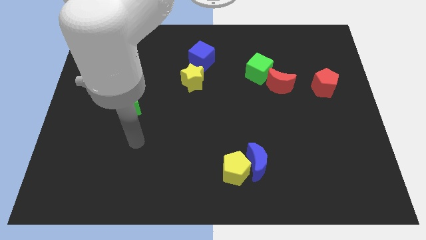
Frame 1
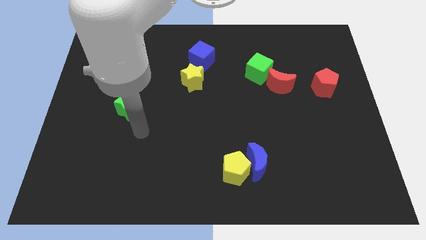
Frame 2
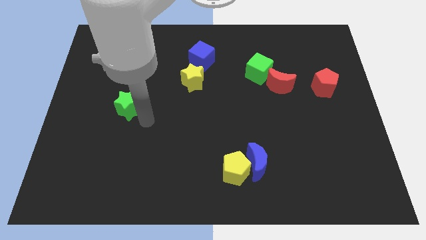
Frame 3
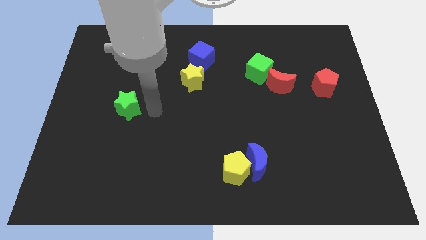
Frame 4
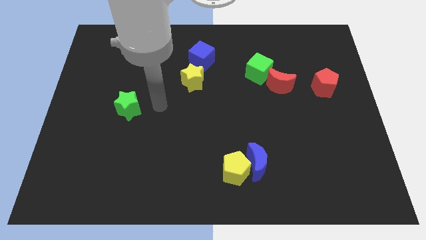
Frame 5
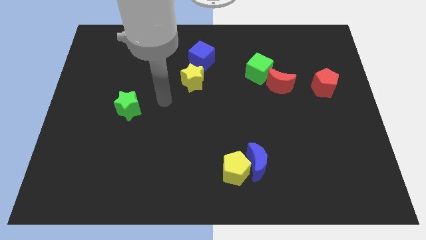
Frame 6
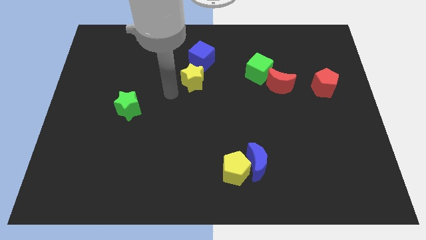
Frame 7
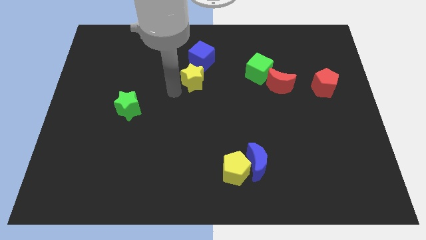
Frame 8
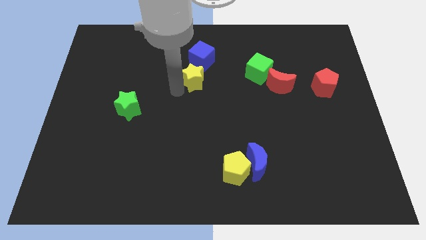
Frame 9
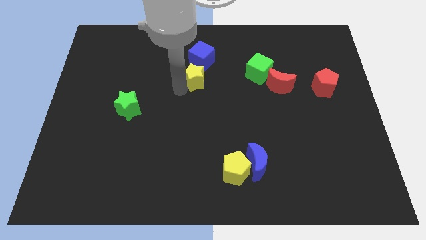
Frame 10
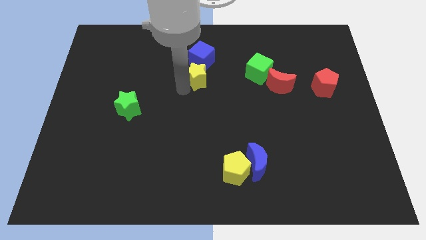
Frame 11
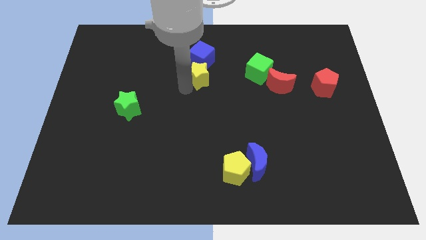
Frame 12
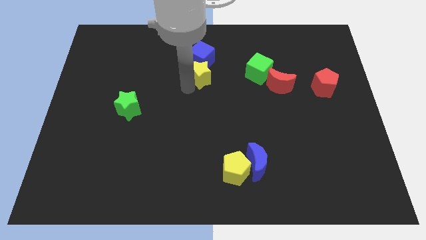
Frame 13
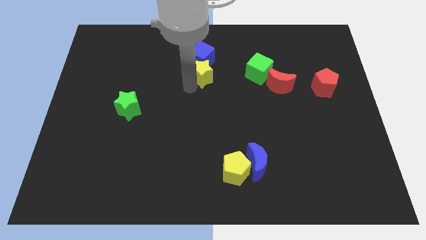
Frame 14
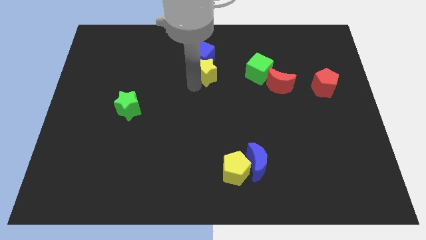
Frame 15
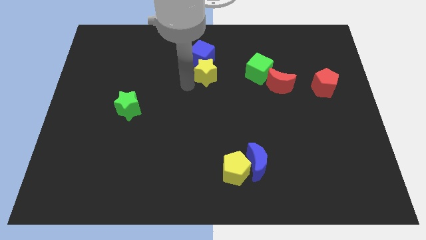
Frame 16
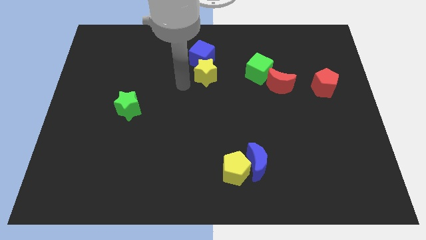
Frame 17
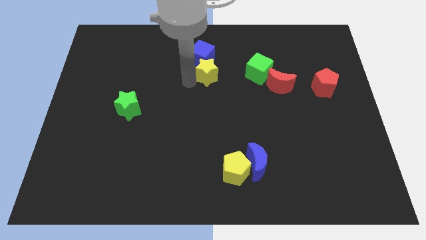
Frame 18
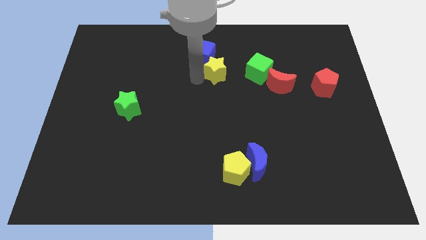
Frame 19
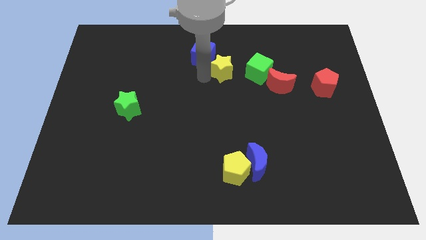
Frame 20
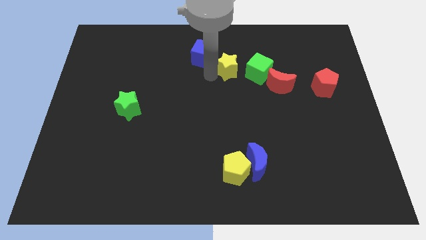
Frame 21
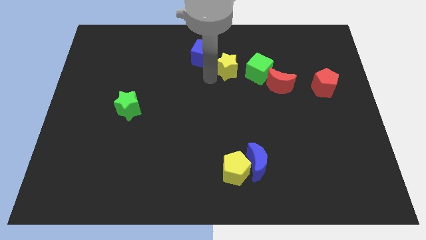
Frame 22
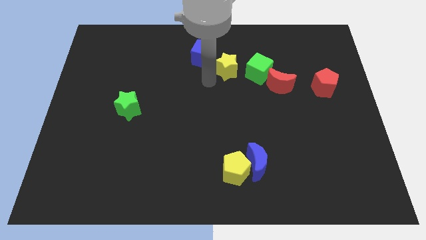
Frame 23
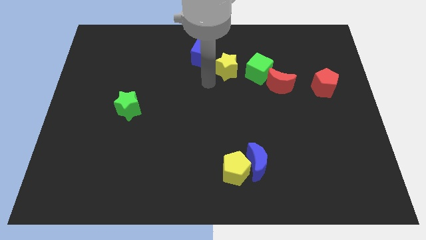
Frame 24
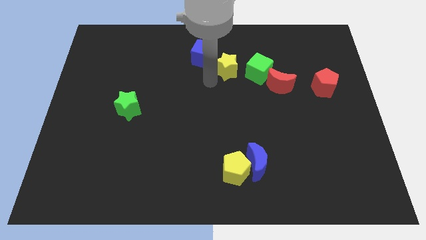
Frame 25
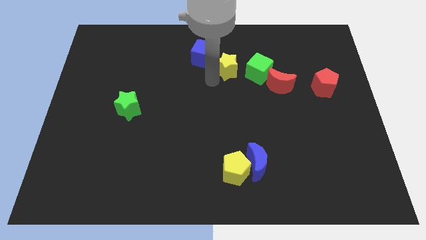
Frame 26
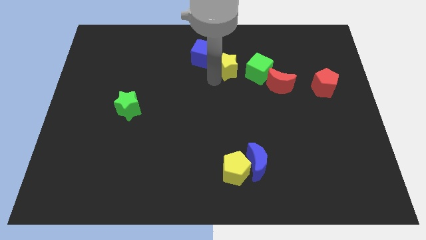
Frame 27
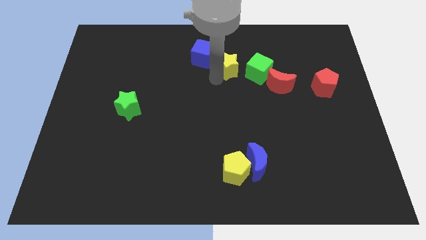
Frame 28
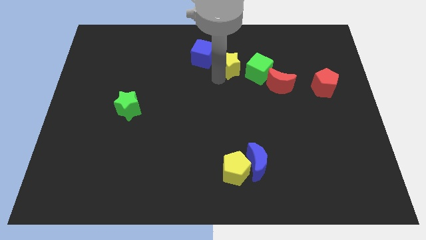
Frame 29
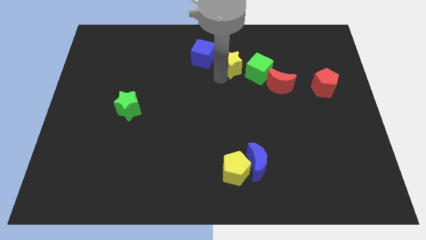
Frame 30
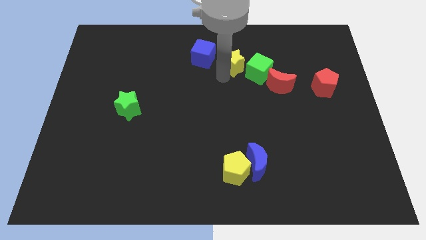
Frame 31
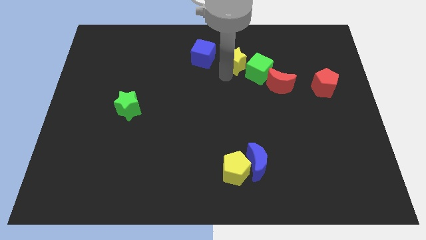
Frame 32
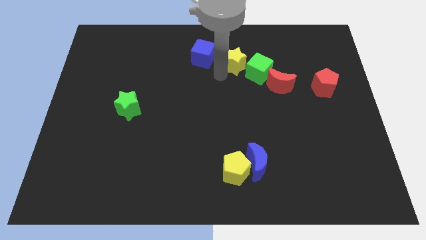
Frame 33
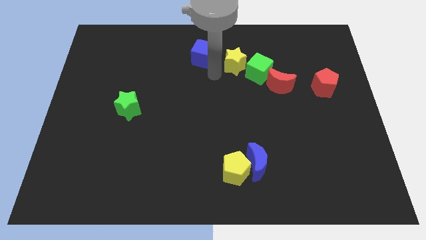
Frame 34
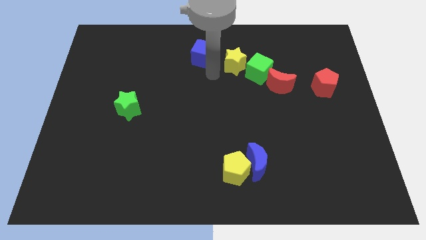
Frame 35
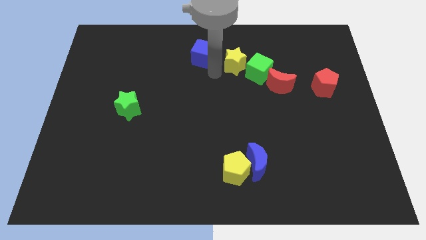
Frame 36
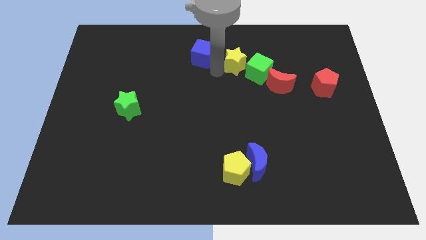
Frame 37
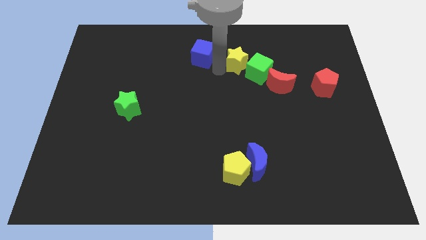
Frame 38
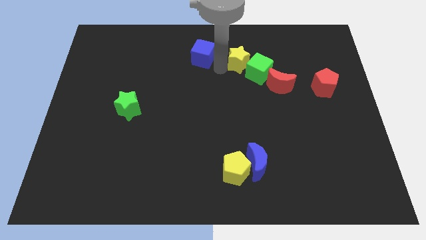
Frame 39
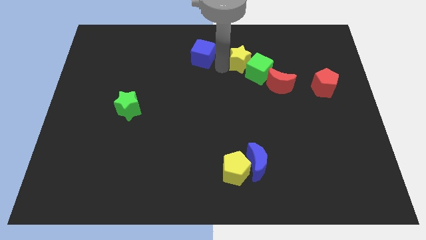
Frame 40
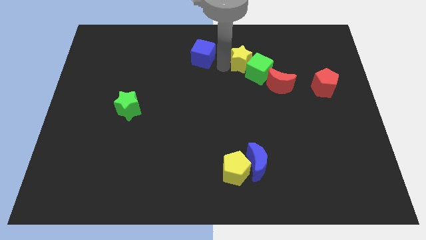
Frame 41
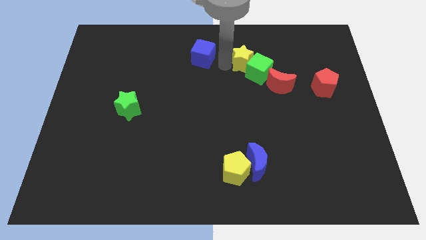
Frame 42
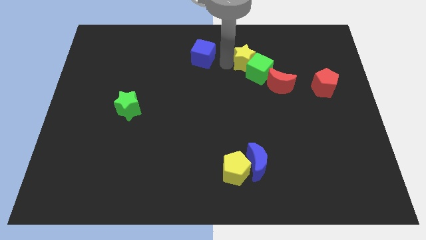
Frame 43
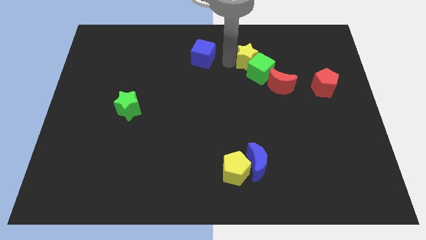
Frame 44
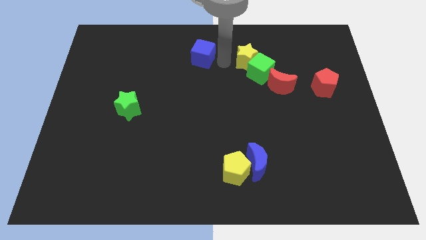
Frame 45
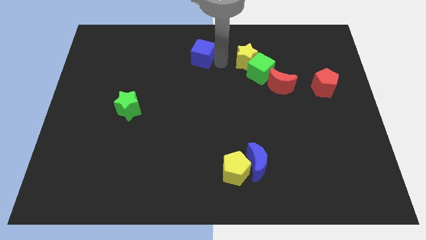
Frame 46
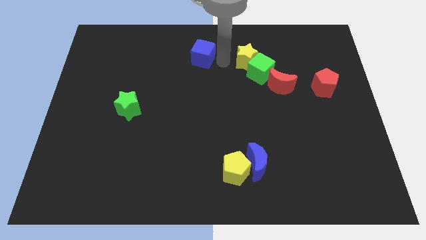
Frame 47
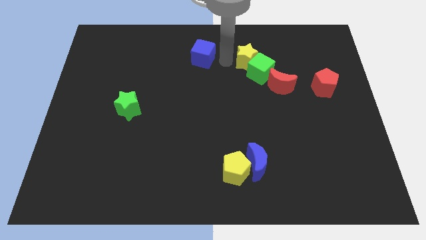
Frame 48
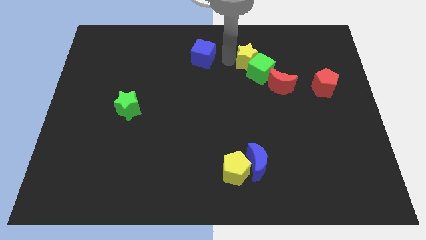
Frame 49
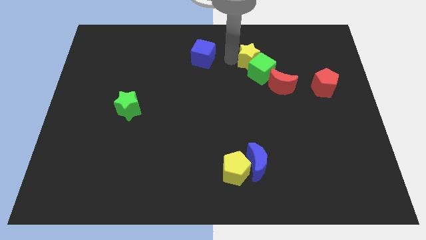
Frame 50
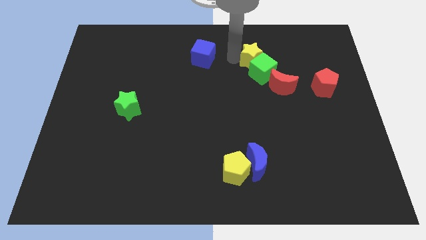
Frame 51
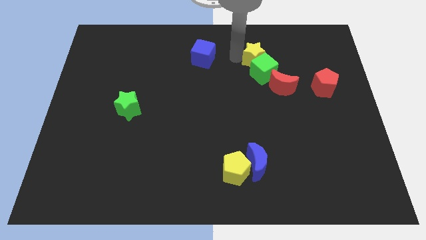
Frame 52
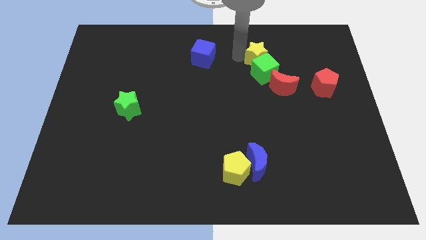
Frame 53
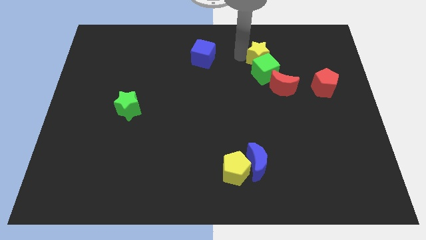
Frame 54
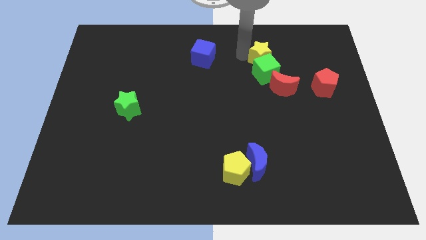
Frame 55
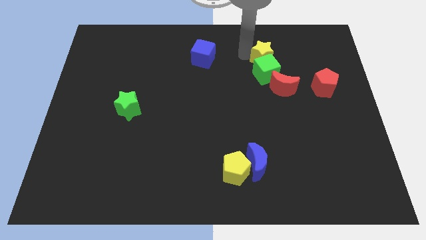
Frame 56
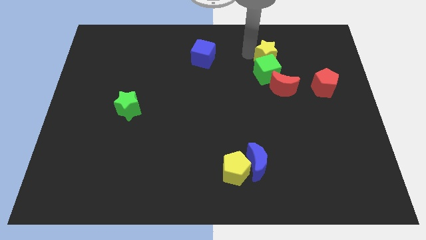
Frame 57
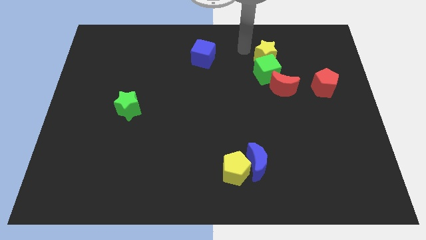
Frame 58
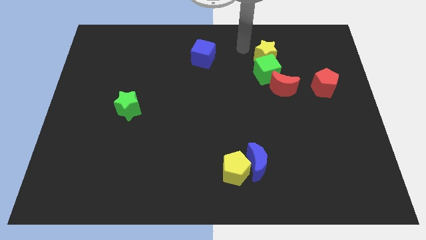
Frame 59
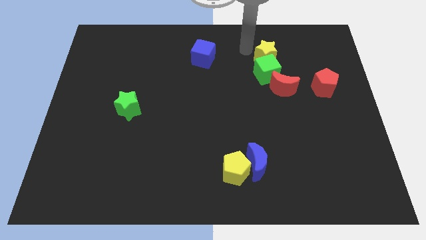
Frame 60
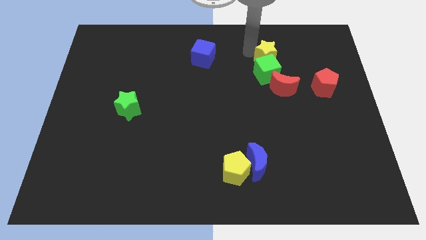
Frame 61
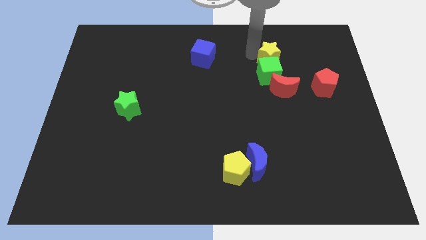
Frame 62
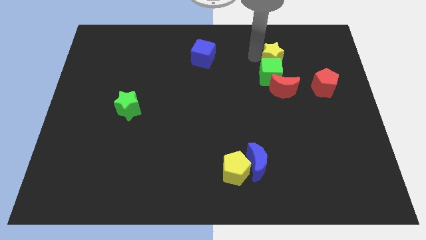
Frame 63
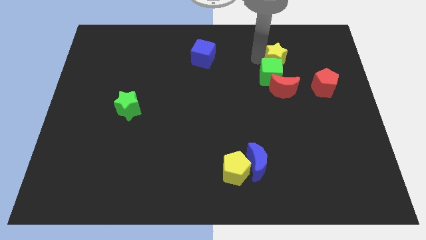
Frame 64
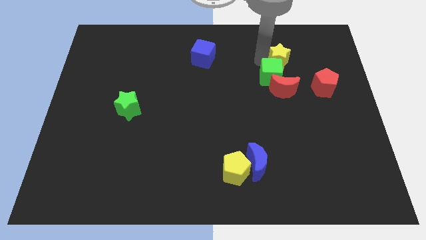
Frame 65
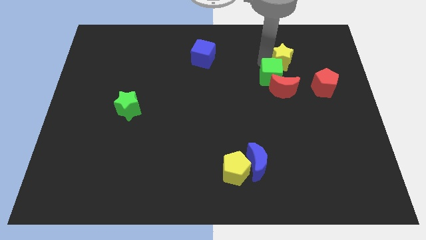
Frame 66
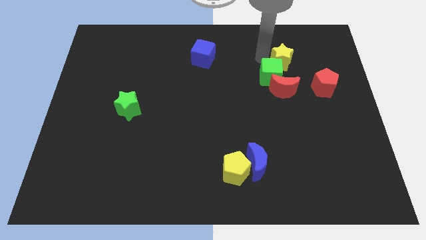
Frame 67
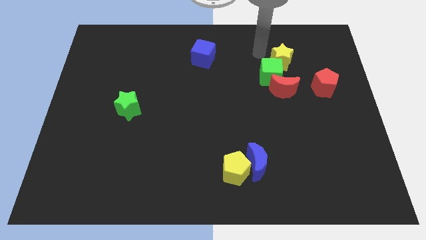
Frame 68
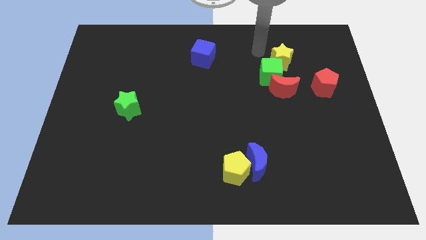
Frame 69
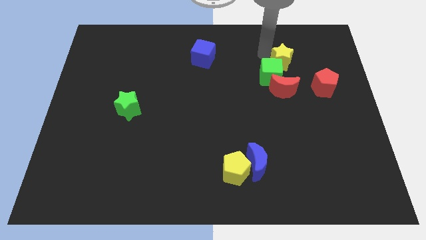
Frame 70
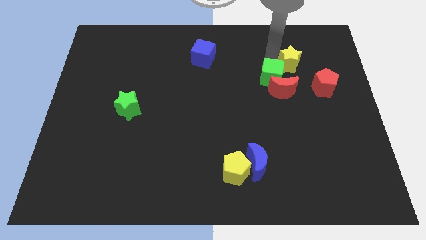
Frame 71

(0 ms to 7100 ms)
move the yellow star right of the green cube

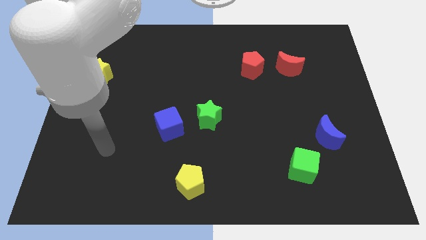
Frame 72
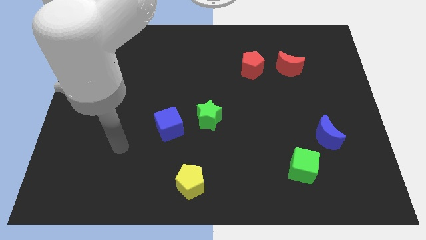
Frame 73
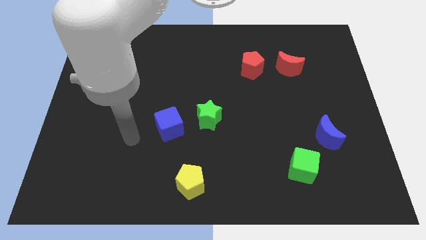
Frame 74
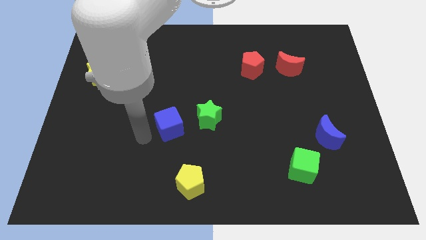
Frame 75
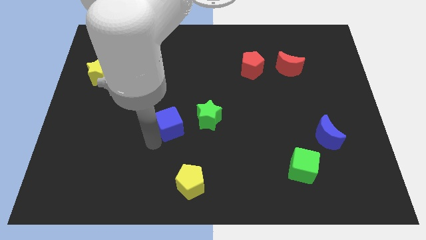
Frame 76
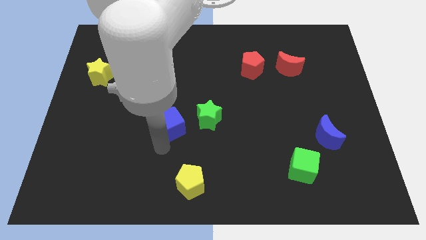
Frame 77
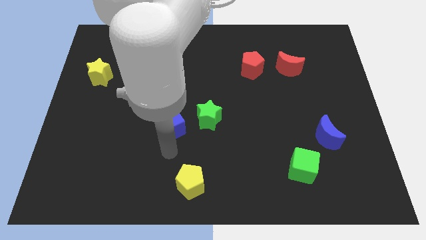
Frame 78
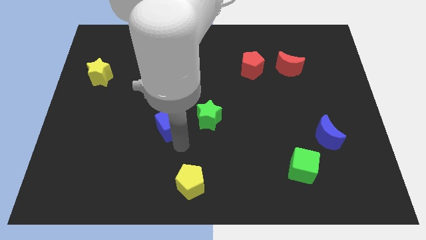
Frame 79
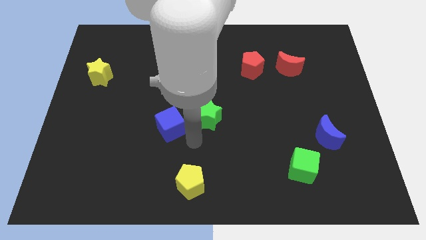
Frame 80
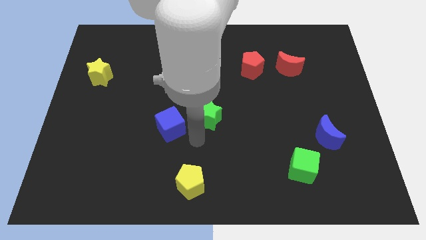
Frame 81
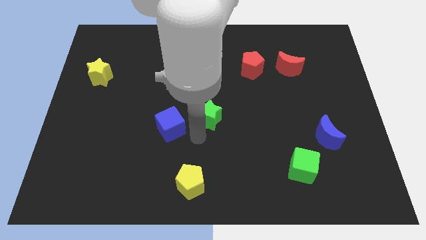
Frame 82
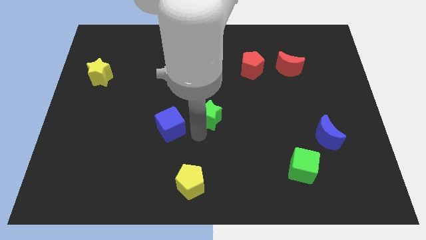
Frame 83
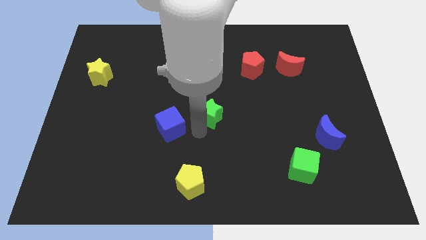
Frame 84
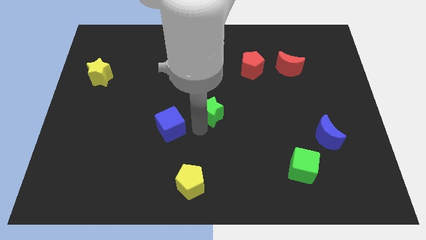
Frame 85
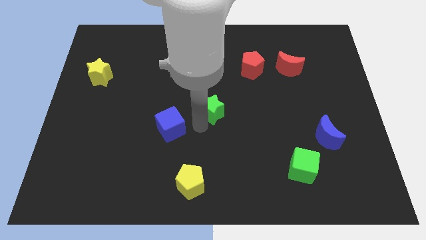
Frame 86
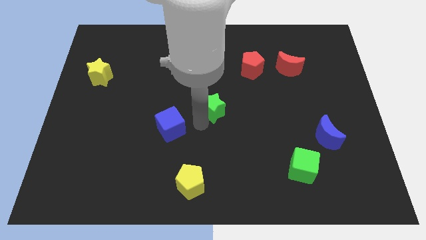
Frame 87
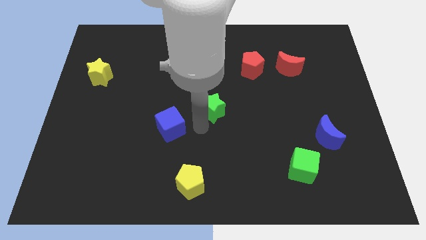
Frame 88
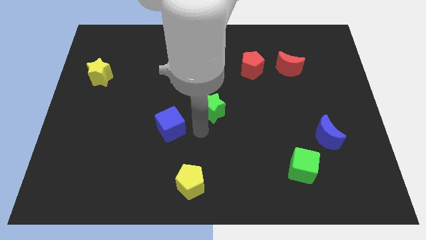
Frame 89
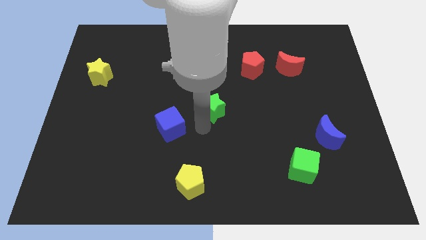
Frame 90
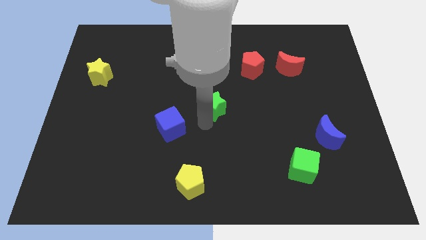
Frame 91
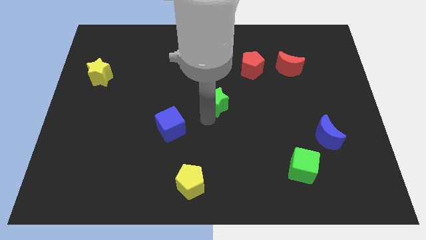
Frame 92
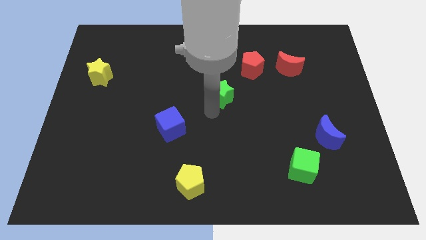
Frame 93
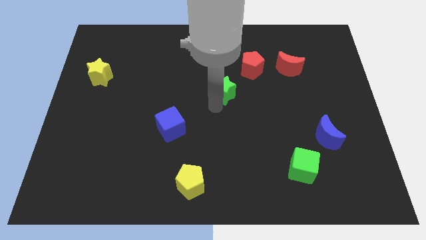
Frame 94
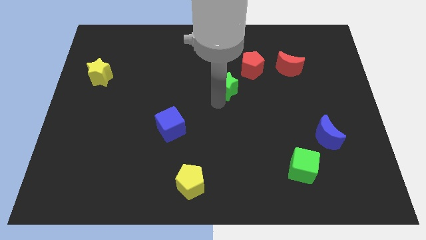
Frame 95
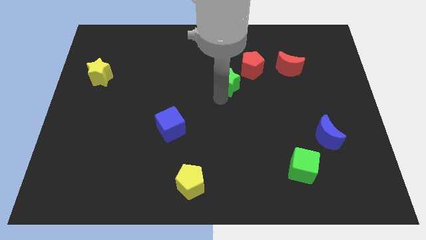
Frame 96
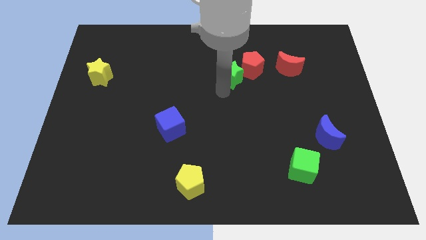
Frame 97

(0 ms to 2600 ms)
put the green star just left of the red moon
